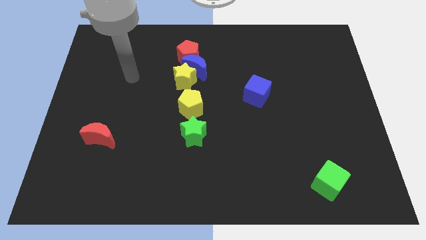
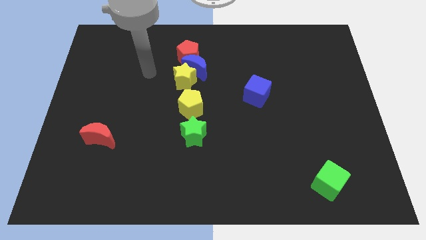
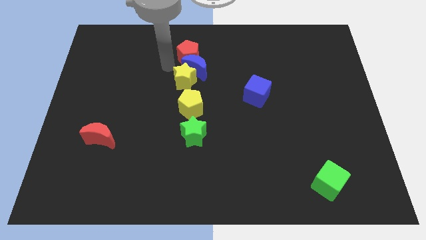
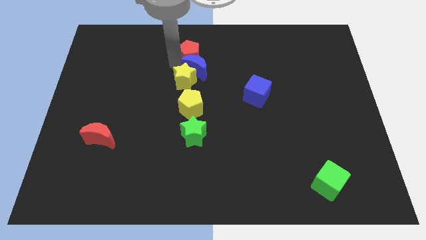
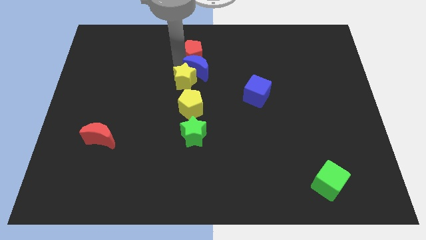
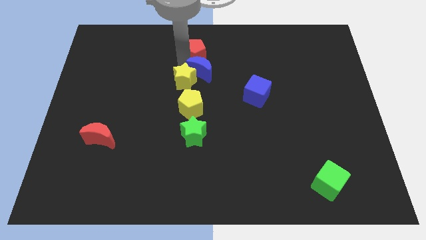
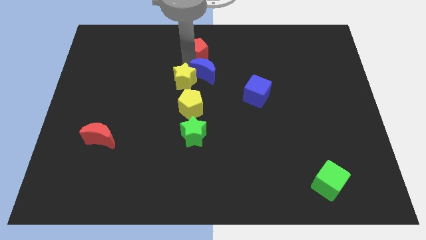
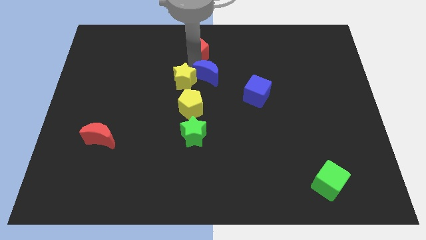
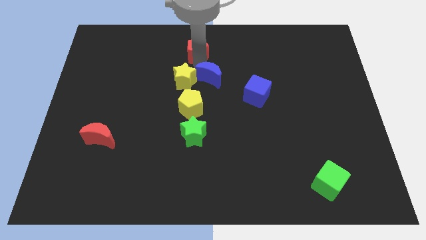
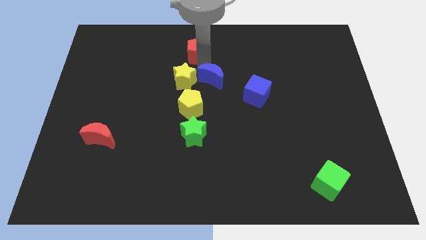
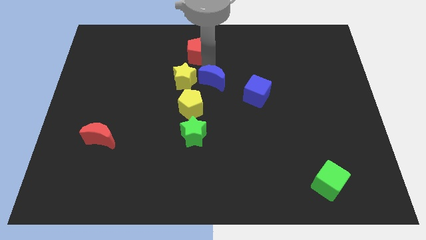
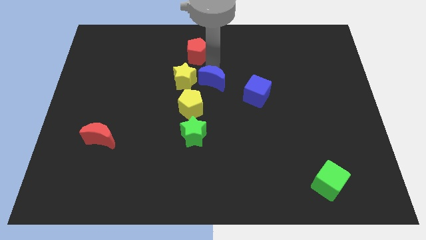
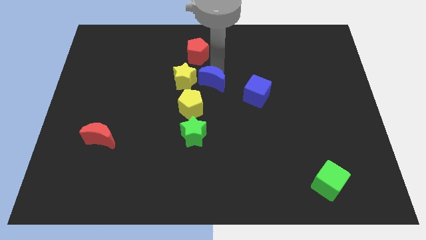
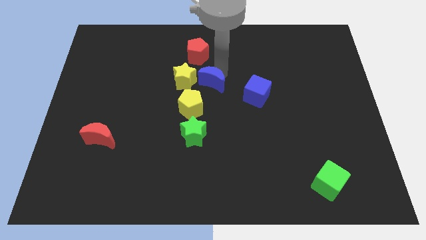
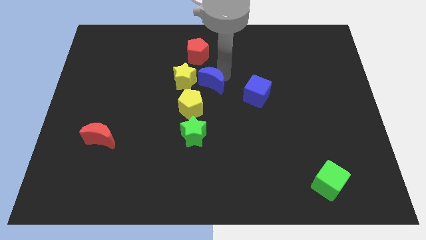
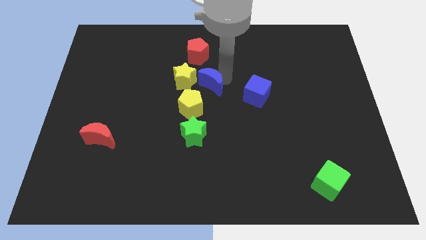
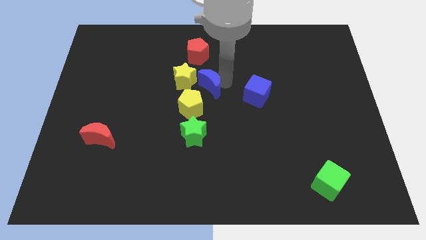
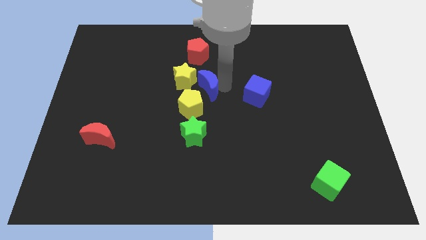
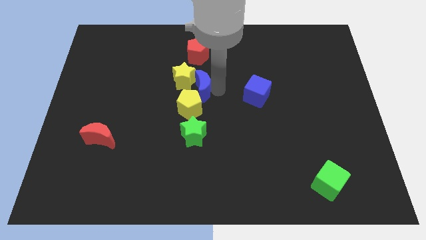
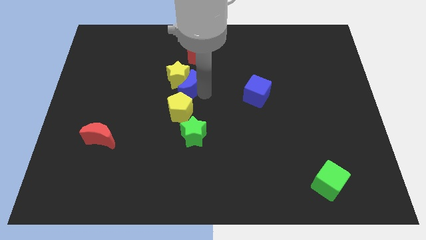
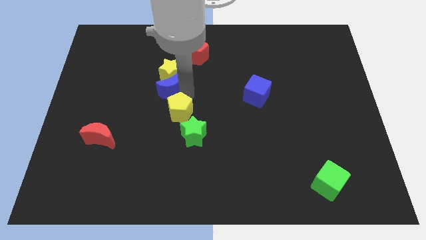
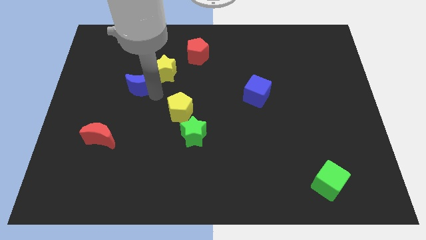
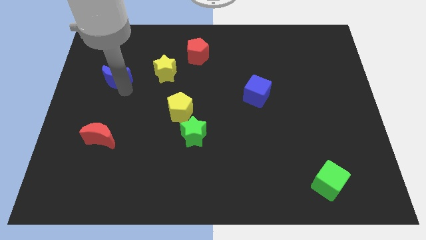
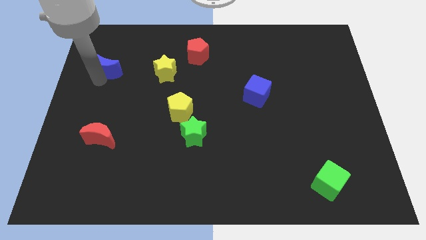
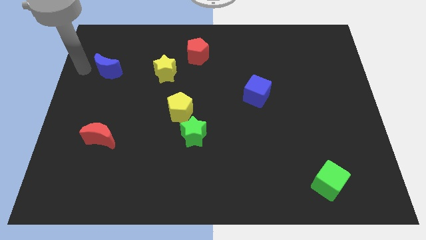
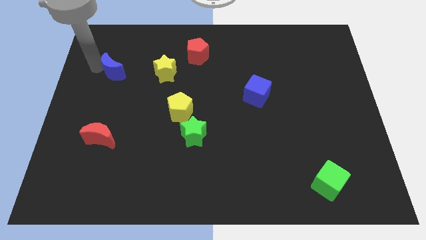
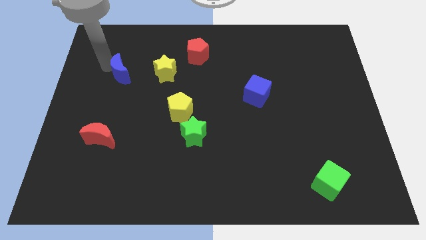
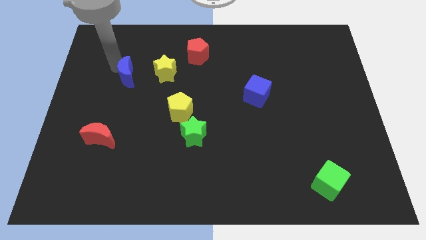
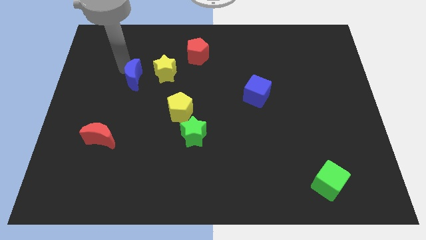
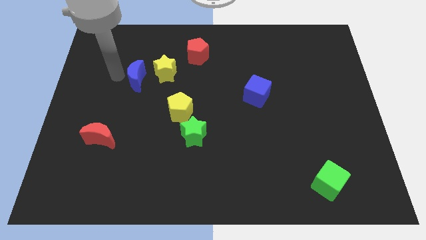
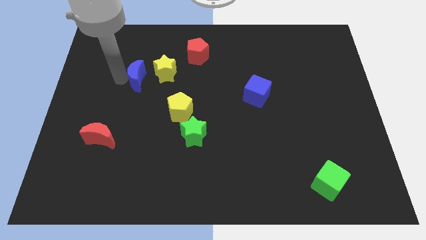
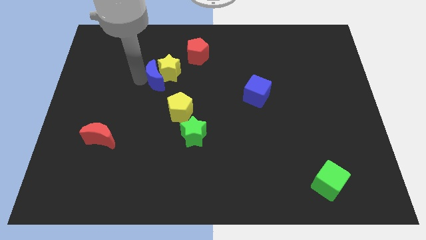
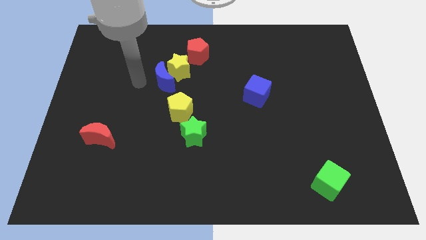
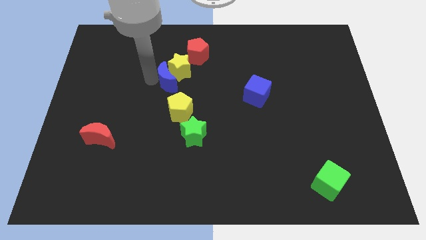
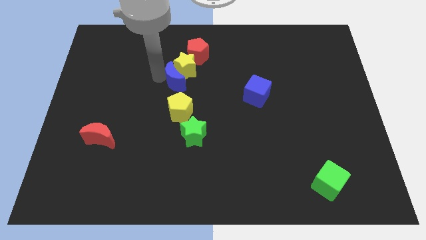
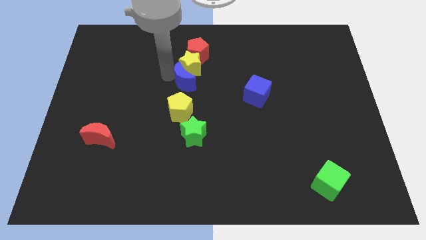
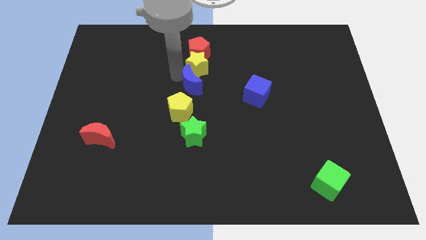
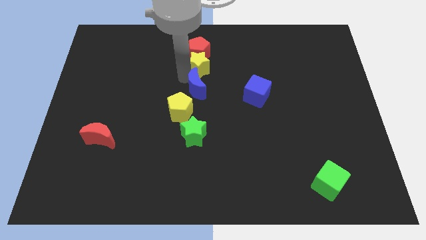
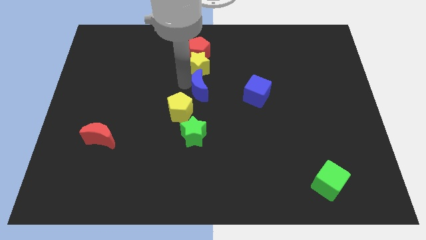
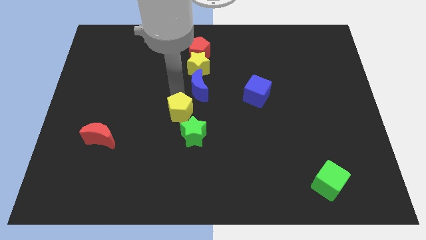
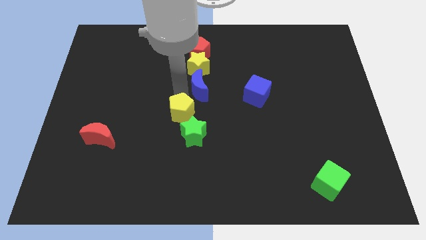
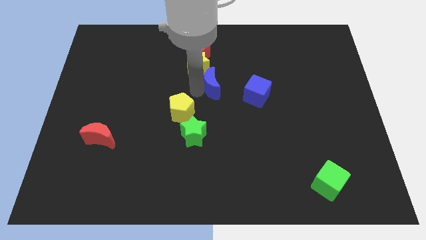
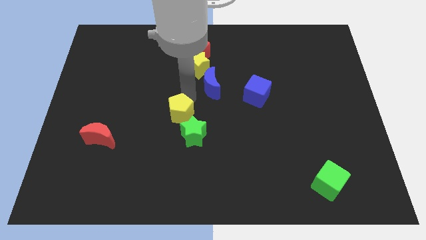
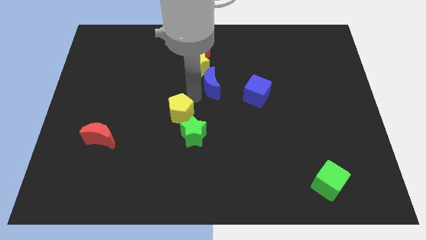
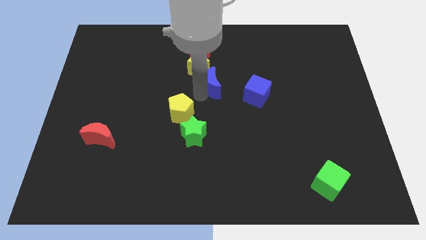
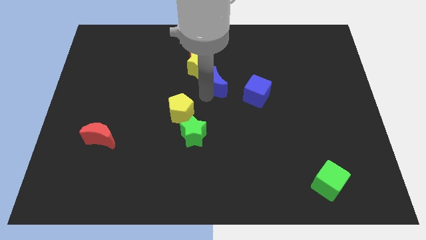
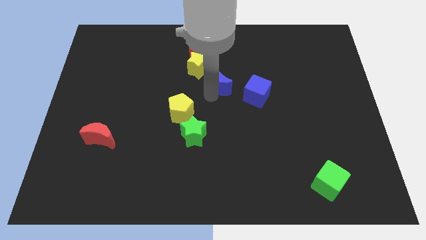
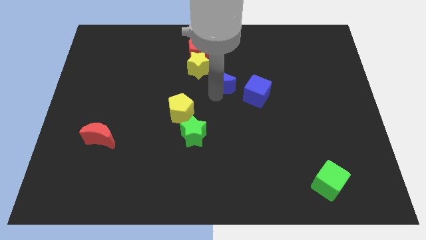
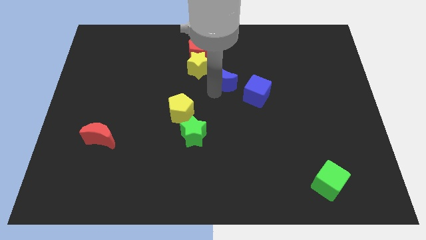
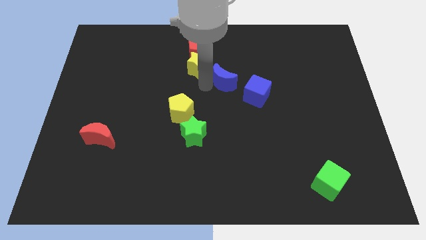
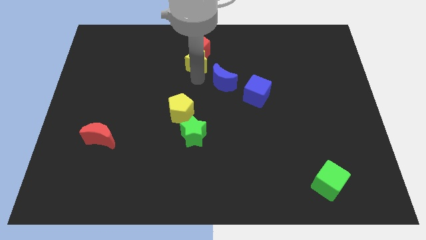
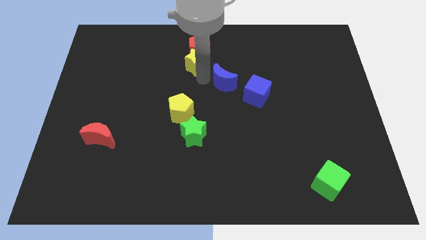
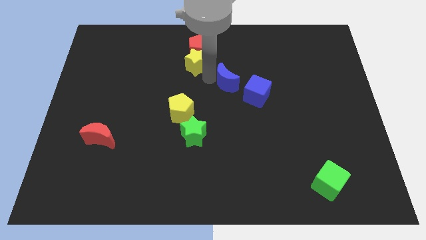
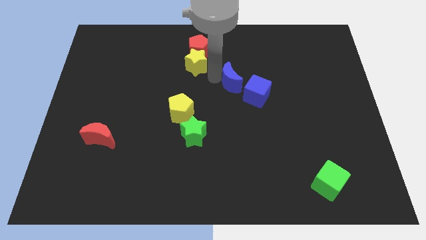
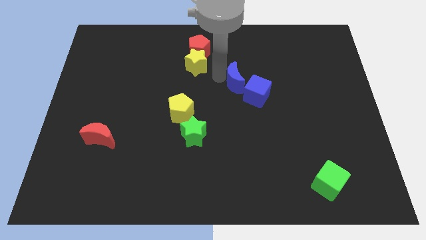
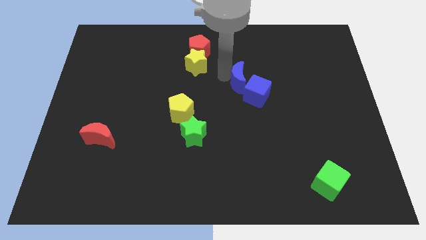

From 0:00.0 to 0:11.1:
slide the blue moon towards the blue cube

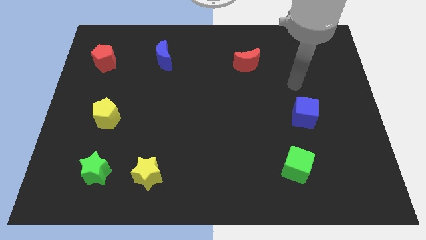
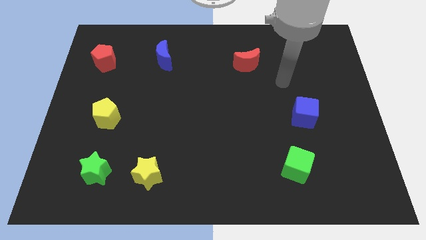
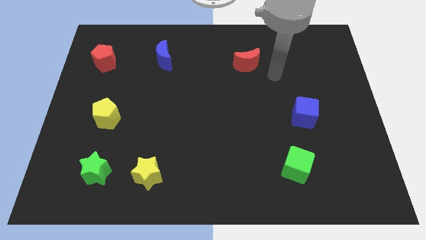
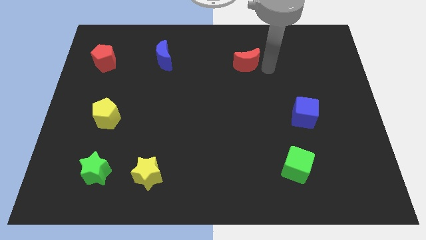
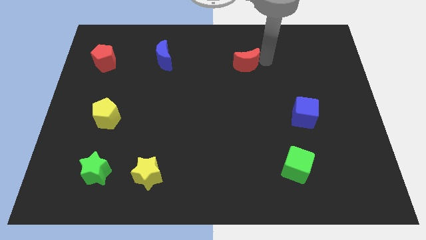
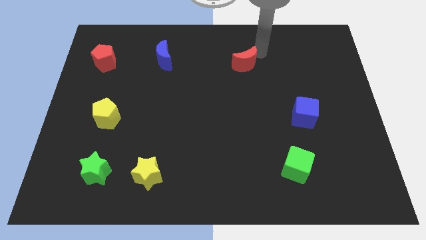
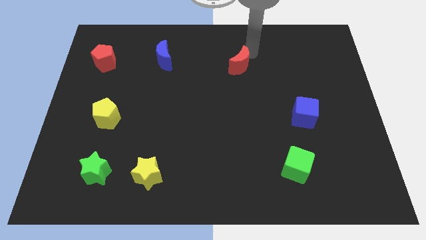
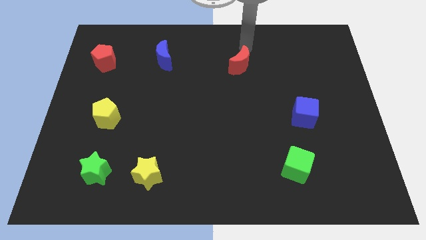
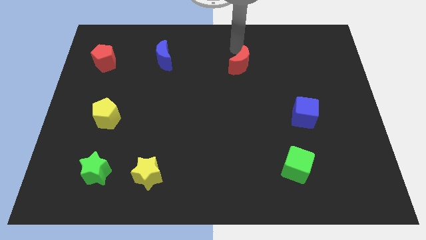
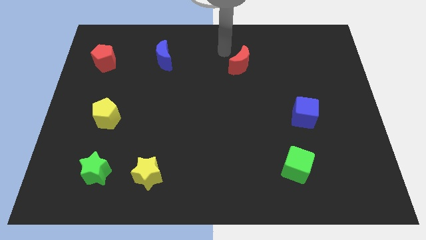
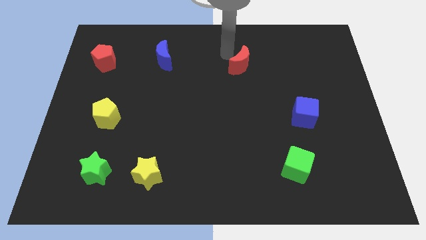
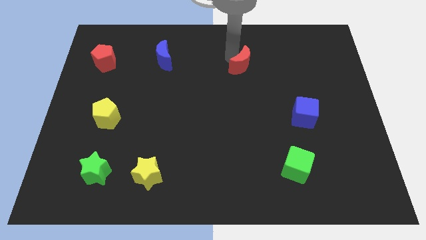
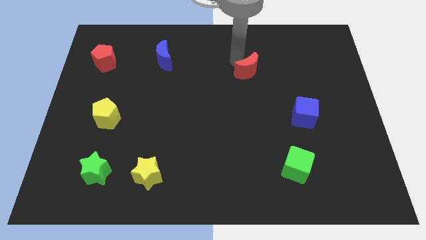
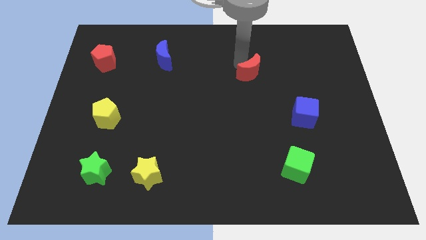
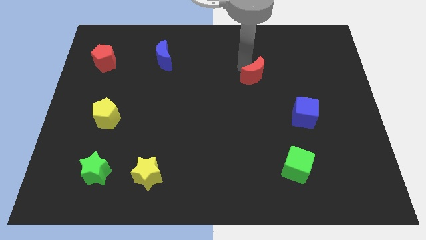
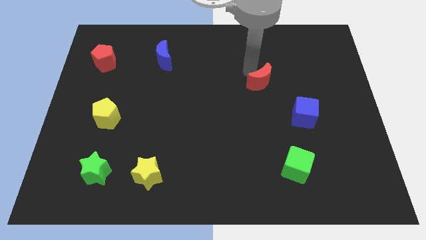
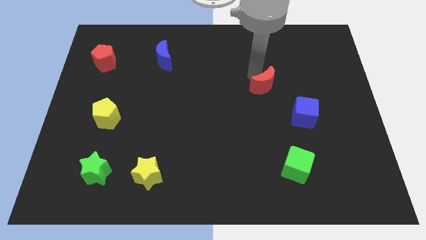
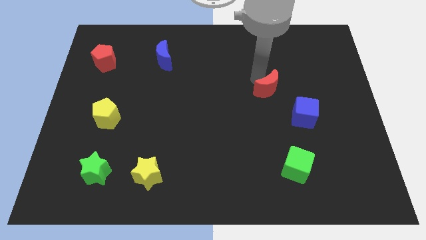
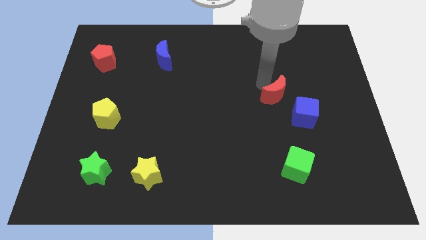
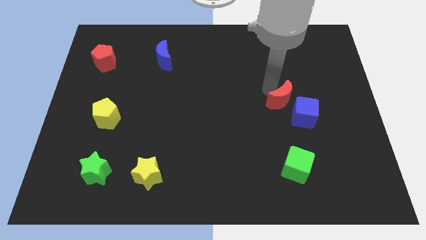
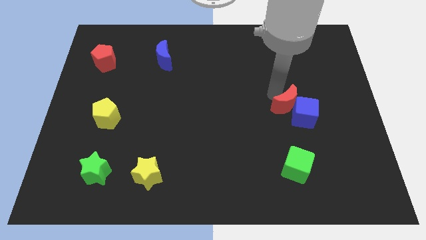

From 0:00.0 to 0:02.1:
move the red moon to the blue cube

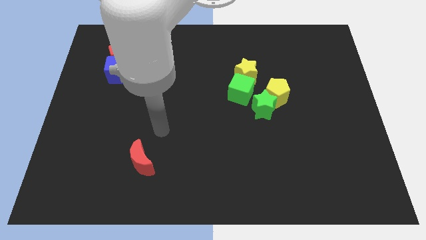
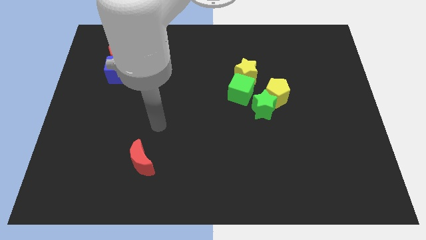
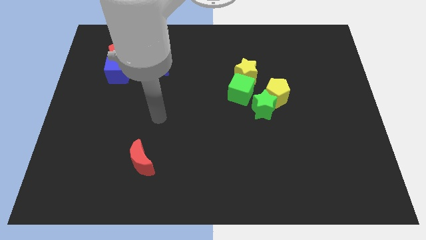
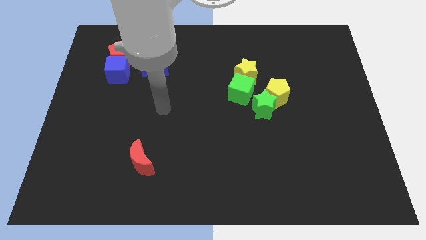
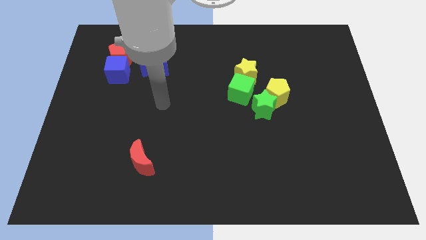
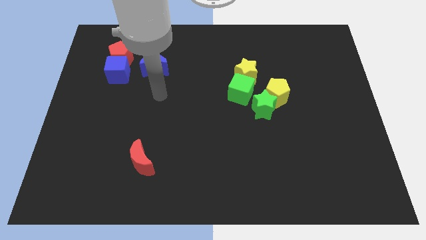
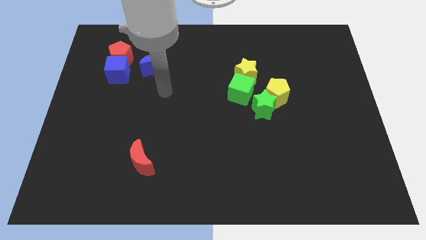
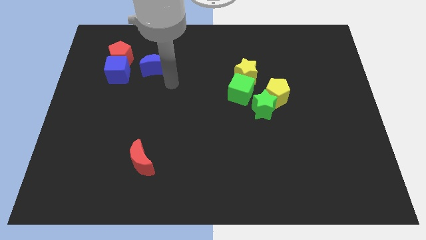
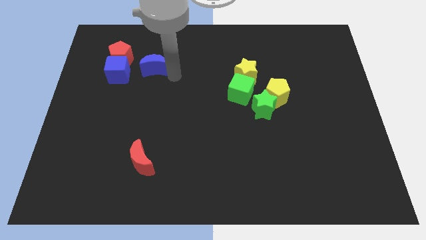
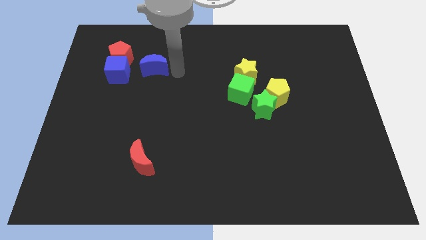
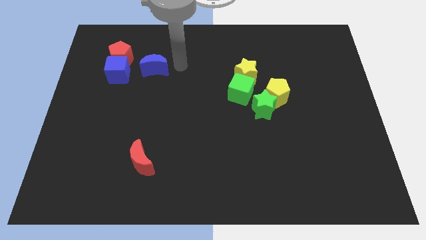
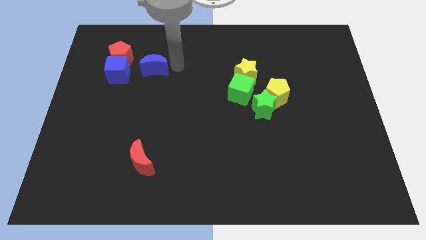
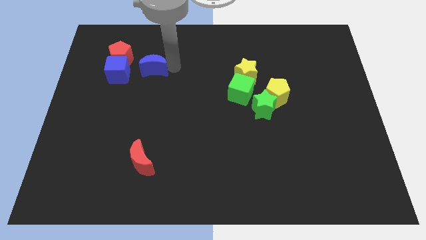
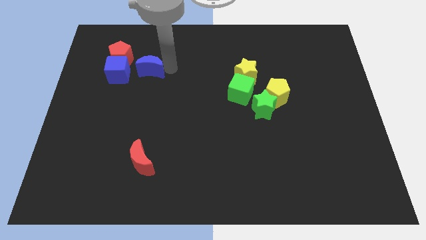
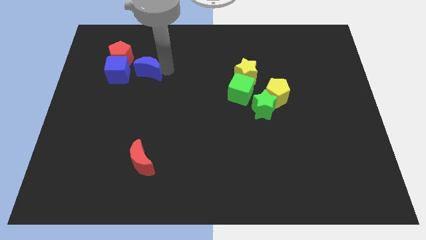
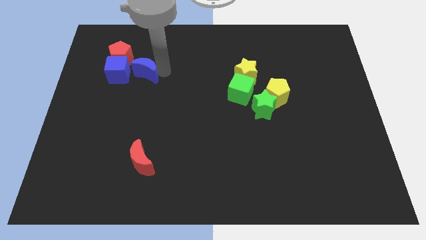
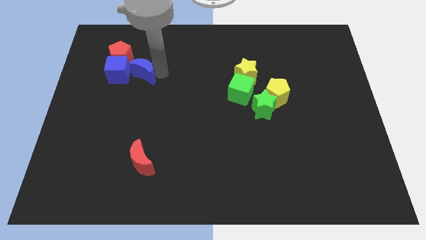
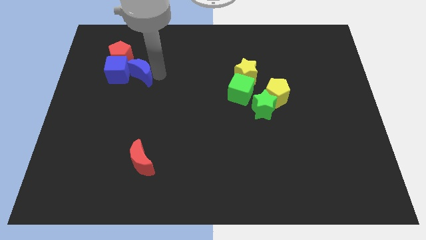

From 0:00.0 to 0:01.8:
move the blue moon close to the blue cube
